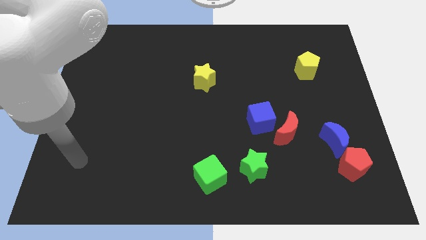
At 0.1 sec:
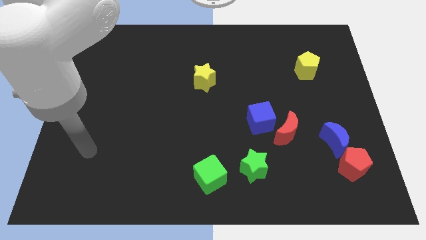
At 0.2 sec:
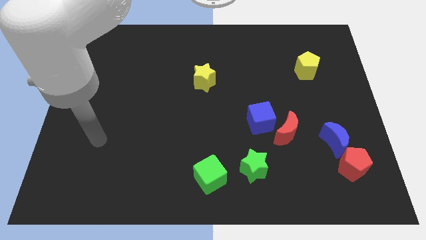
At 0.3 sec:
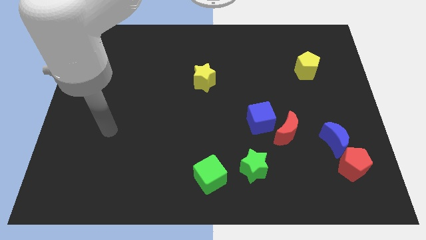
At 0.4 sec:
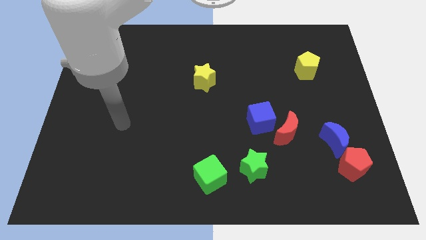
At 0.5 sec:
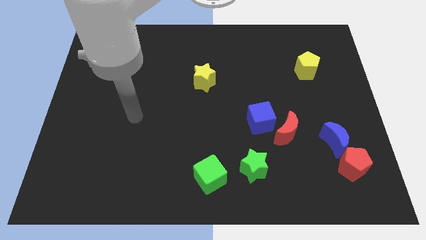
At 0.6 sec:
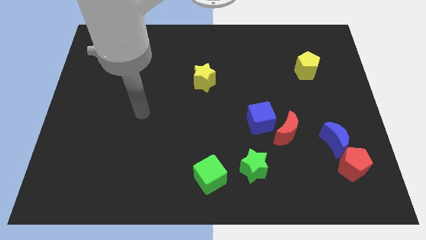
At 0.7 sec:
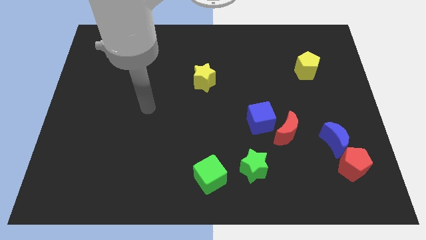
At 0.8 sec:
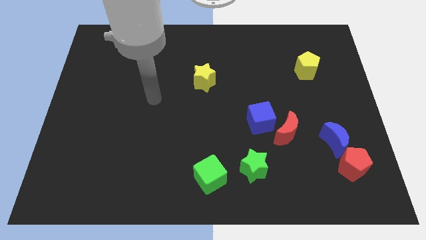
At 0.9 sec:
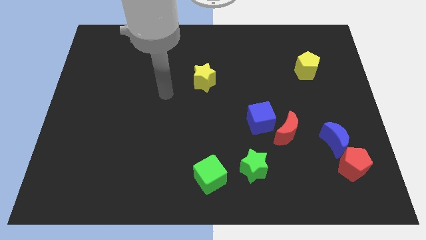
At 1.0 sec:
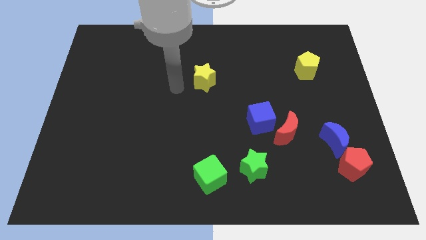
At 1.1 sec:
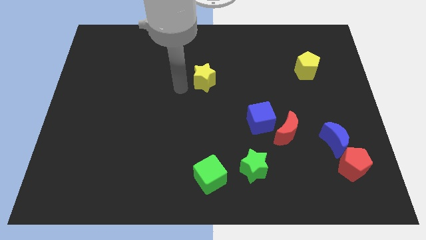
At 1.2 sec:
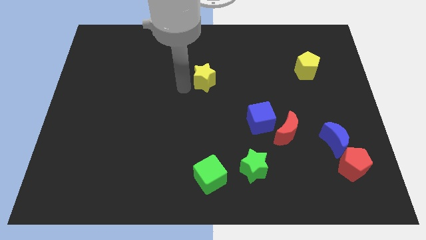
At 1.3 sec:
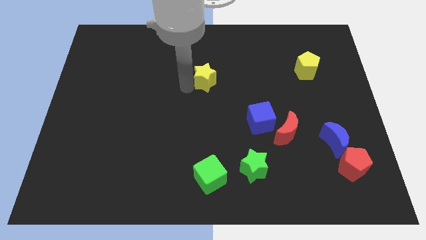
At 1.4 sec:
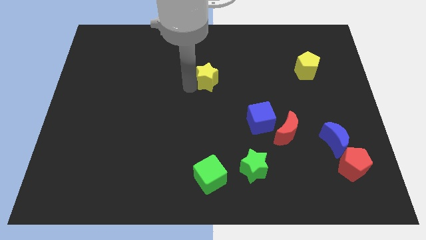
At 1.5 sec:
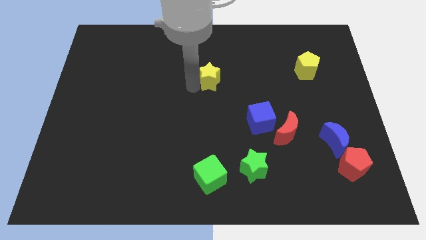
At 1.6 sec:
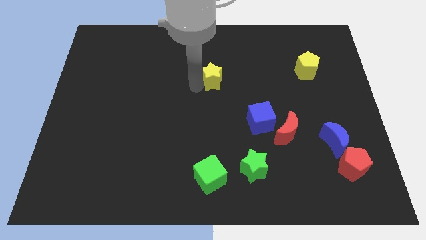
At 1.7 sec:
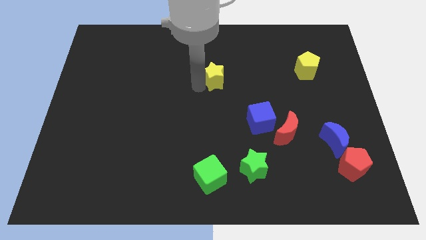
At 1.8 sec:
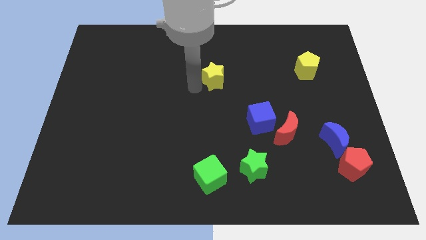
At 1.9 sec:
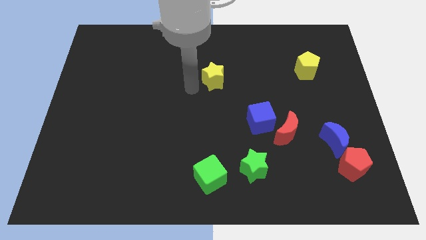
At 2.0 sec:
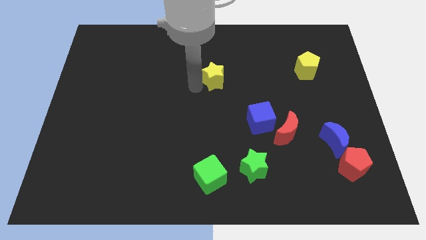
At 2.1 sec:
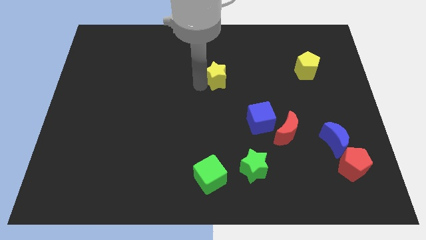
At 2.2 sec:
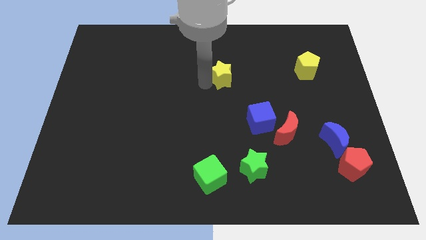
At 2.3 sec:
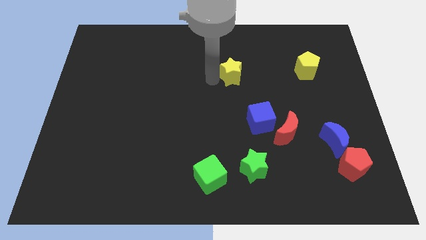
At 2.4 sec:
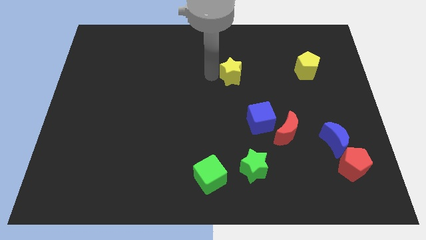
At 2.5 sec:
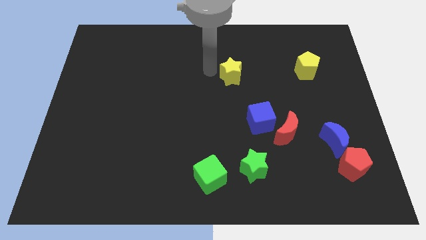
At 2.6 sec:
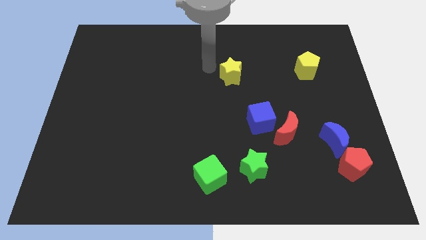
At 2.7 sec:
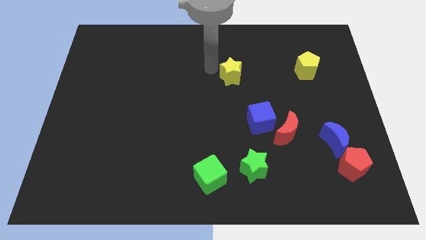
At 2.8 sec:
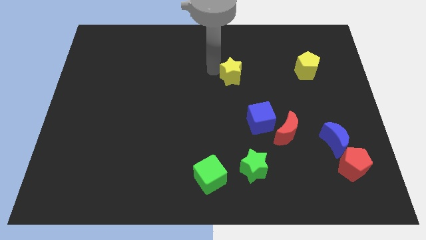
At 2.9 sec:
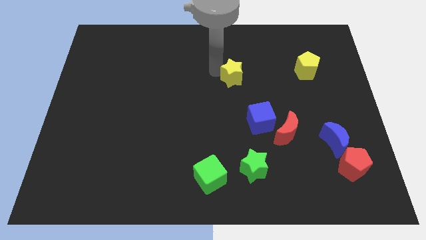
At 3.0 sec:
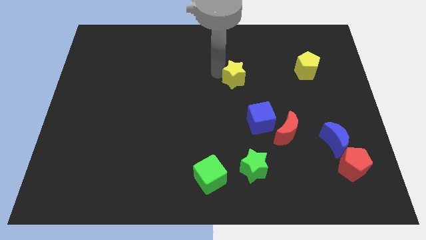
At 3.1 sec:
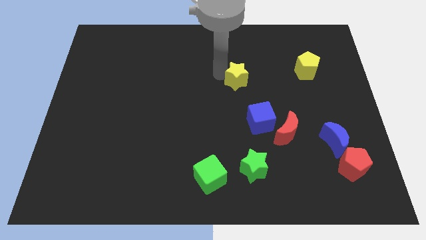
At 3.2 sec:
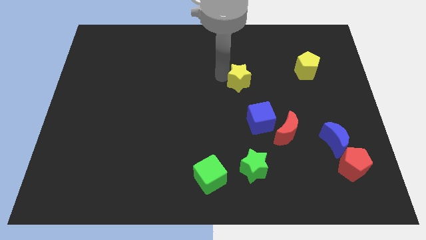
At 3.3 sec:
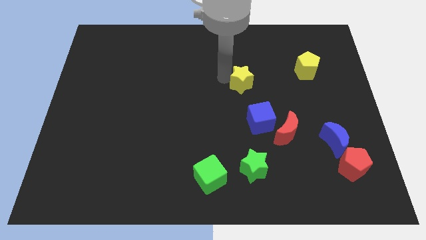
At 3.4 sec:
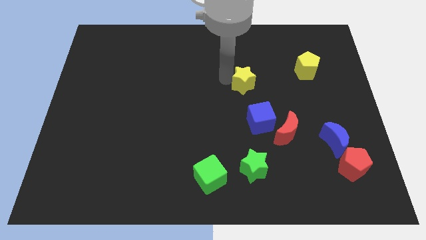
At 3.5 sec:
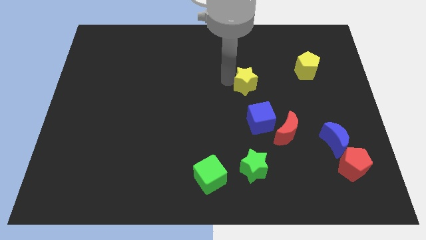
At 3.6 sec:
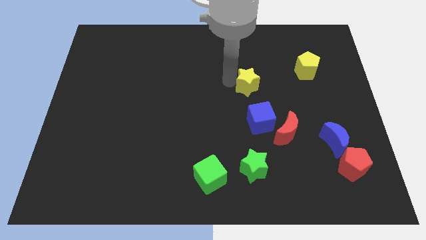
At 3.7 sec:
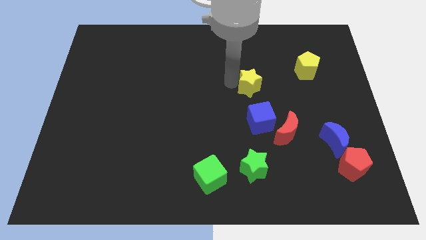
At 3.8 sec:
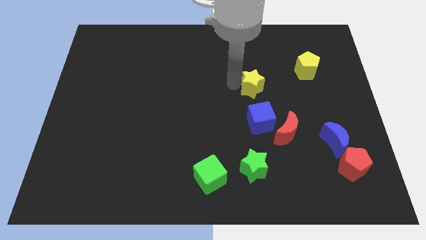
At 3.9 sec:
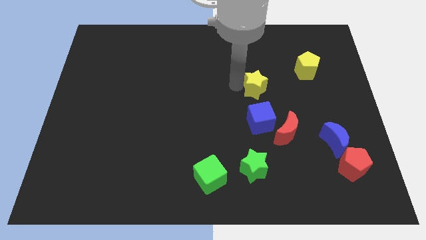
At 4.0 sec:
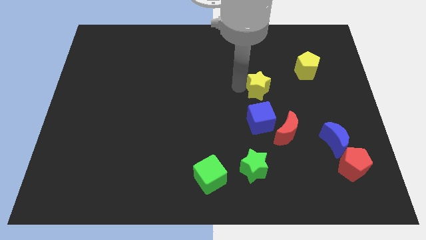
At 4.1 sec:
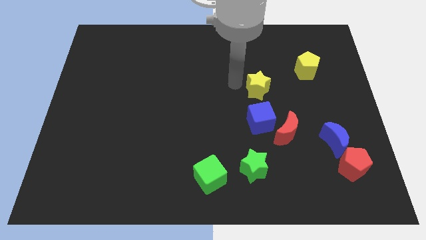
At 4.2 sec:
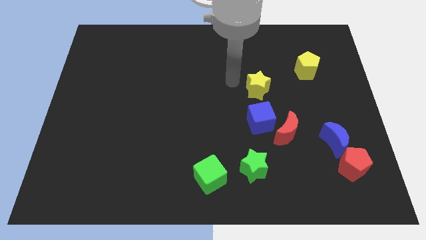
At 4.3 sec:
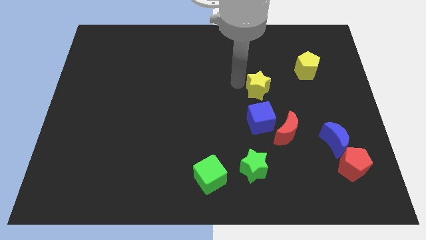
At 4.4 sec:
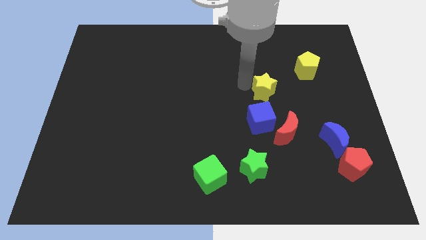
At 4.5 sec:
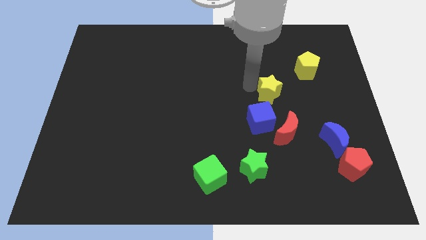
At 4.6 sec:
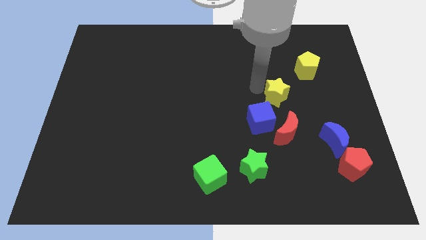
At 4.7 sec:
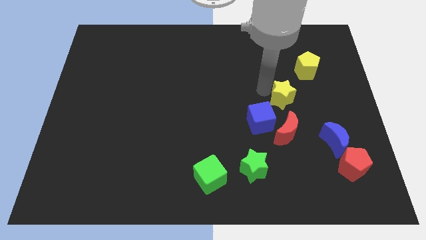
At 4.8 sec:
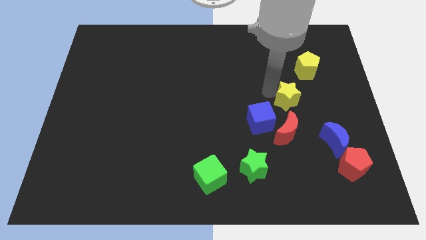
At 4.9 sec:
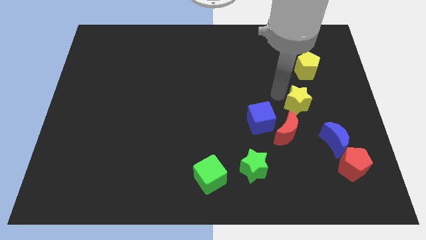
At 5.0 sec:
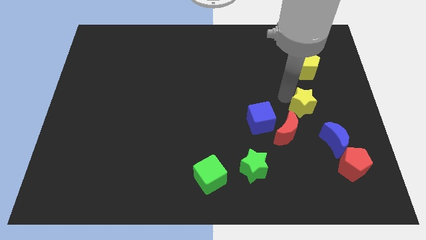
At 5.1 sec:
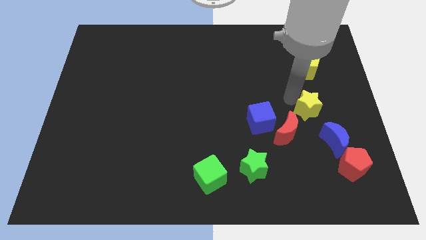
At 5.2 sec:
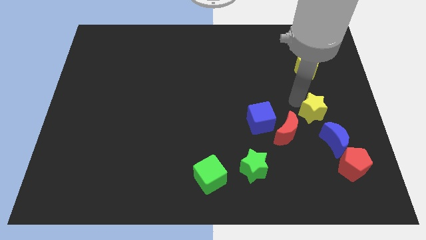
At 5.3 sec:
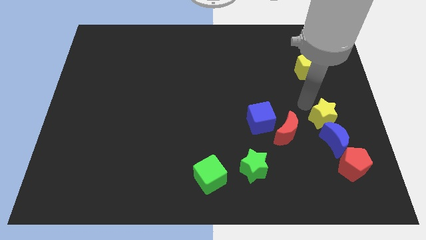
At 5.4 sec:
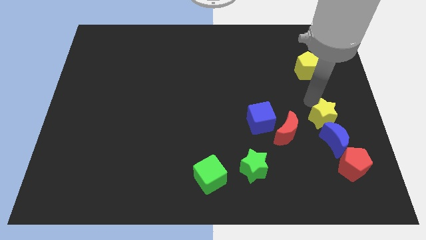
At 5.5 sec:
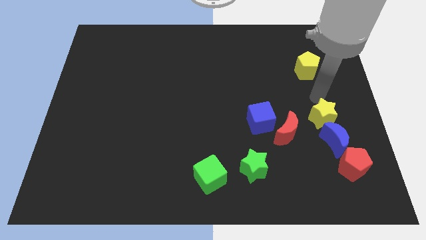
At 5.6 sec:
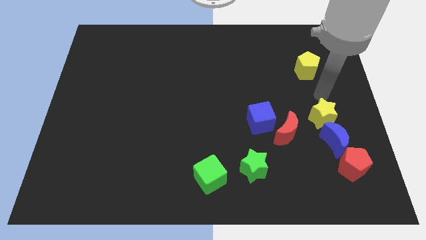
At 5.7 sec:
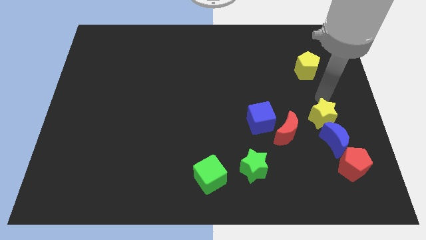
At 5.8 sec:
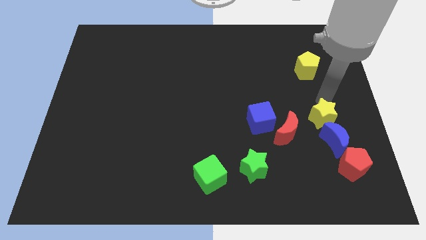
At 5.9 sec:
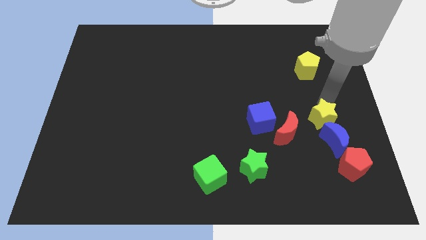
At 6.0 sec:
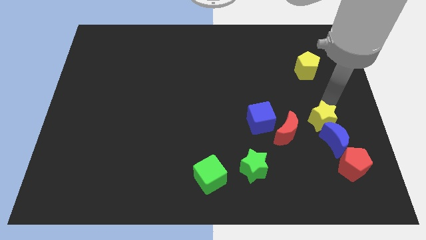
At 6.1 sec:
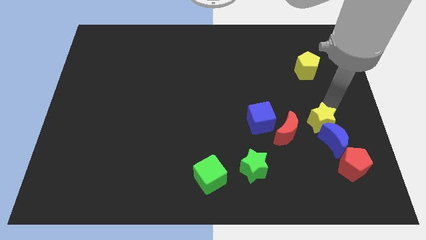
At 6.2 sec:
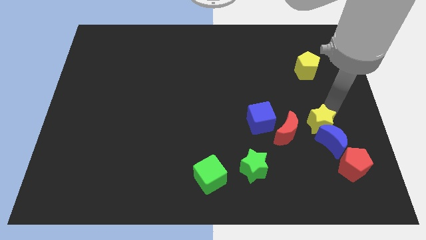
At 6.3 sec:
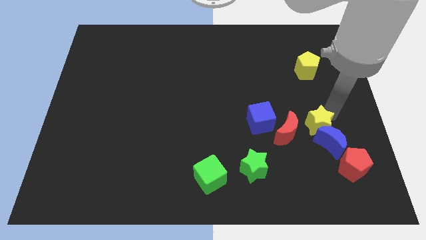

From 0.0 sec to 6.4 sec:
push the yellow star to the top left of the red pentagon

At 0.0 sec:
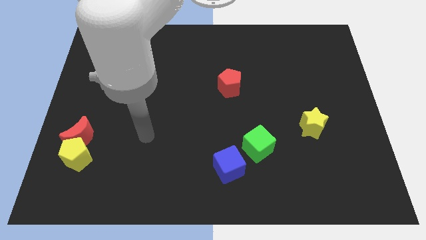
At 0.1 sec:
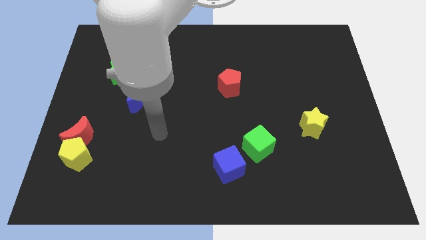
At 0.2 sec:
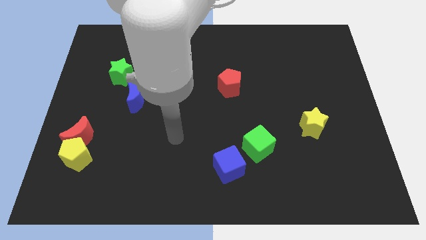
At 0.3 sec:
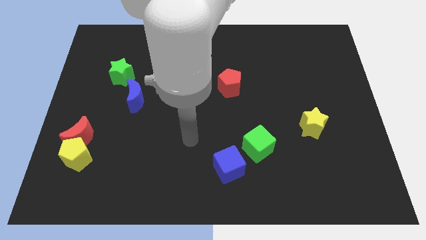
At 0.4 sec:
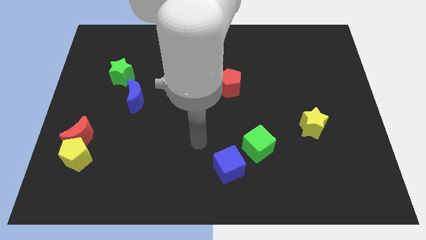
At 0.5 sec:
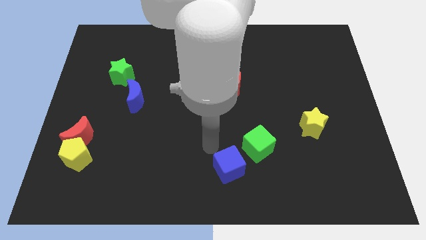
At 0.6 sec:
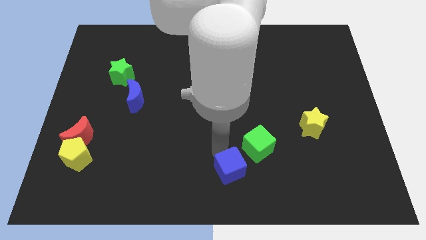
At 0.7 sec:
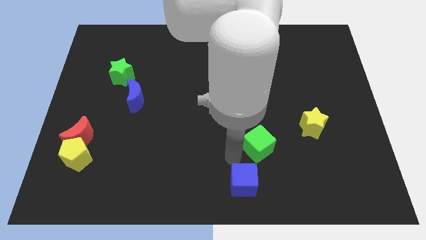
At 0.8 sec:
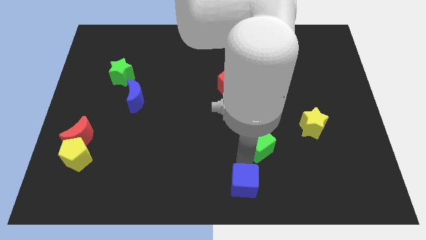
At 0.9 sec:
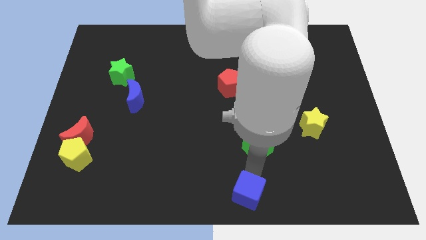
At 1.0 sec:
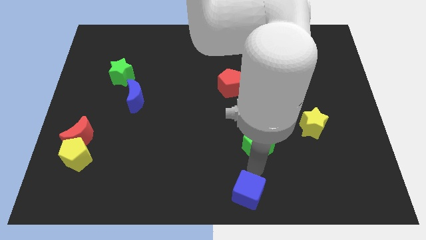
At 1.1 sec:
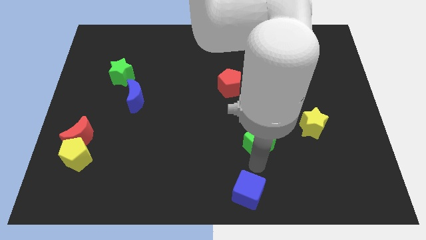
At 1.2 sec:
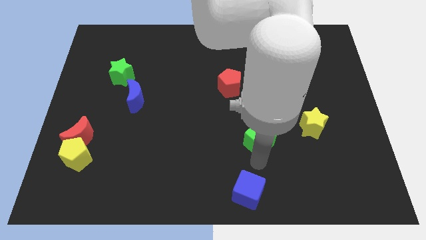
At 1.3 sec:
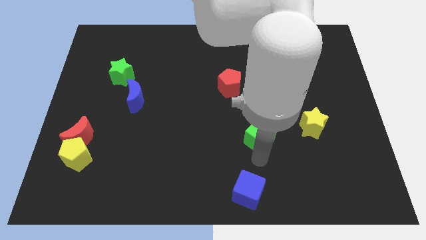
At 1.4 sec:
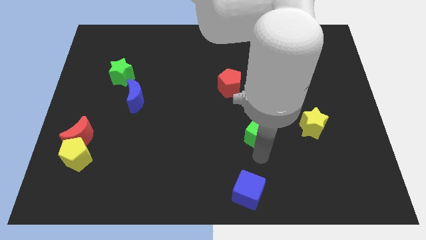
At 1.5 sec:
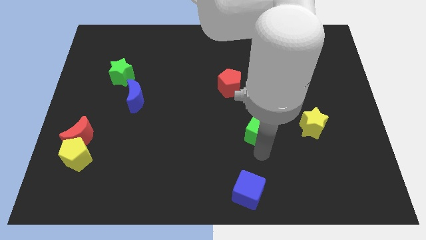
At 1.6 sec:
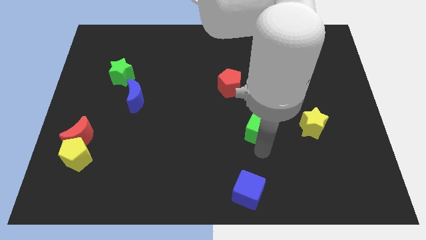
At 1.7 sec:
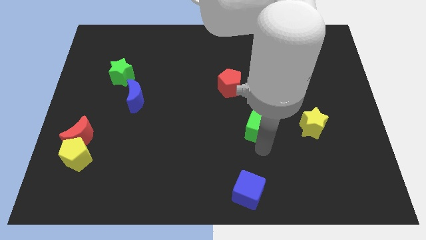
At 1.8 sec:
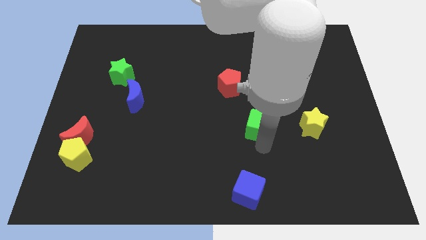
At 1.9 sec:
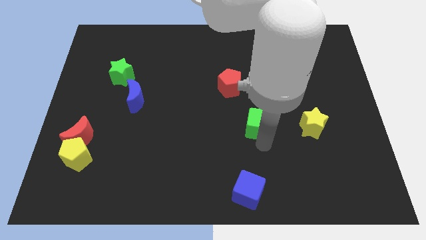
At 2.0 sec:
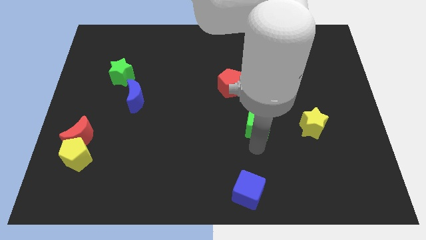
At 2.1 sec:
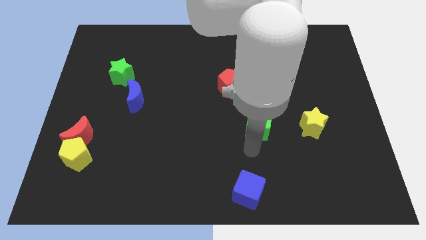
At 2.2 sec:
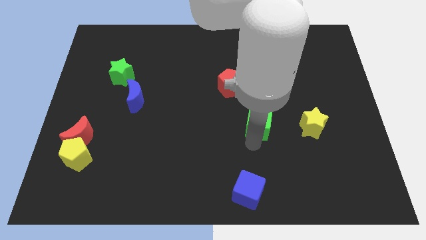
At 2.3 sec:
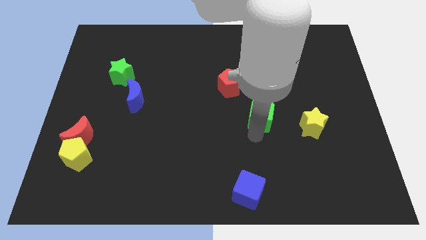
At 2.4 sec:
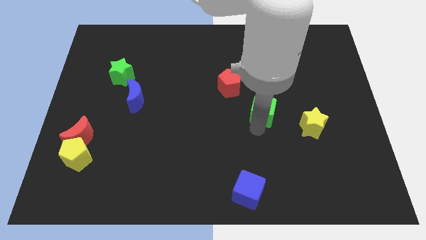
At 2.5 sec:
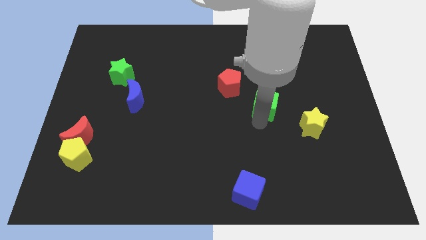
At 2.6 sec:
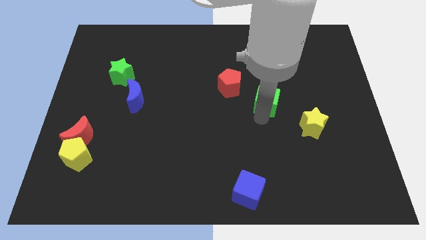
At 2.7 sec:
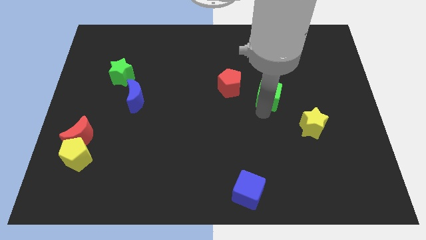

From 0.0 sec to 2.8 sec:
push the green cube just right of the red pentagon
